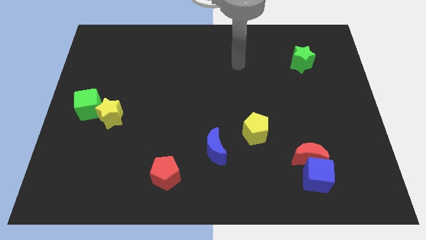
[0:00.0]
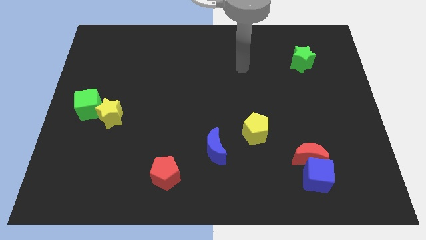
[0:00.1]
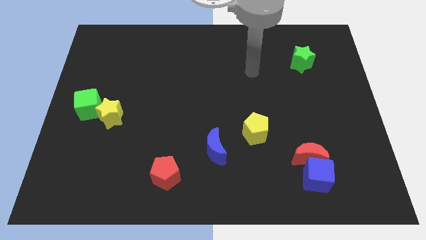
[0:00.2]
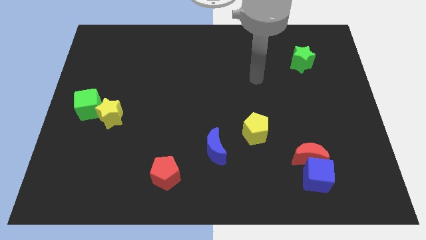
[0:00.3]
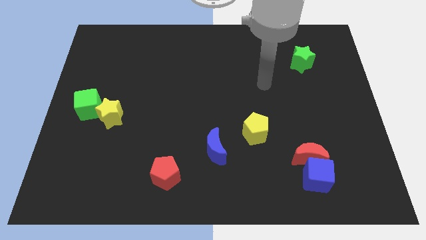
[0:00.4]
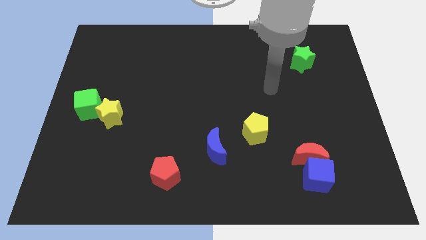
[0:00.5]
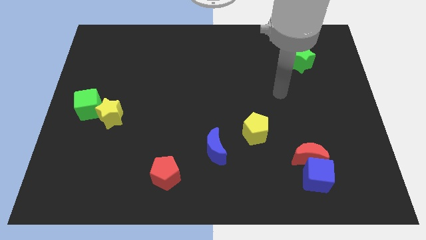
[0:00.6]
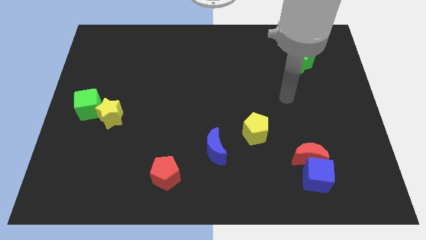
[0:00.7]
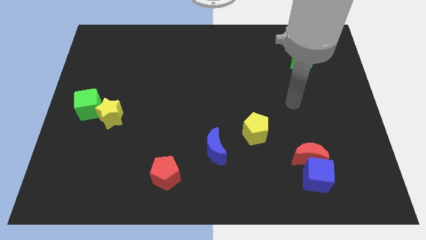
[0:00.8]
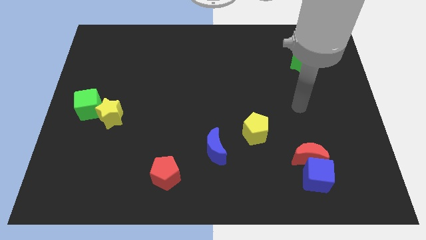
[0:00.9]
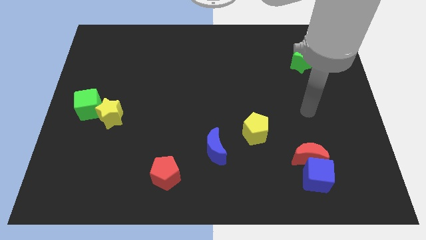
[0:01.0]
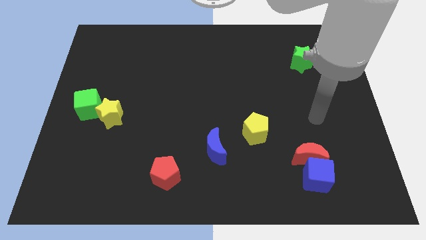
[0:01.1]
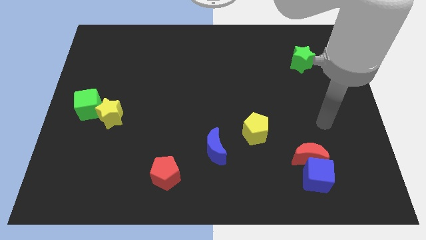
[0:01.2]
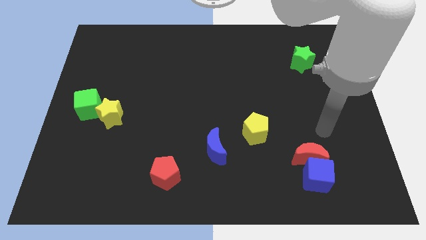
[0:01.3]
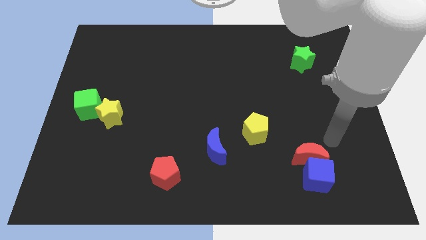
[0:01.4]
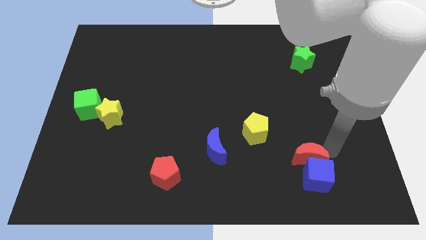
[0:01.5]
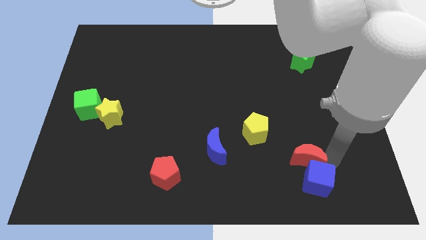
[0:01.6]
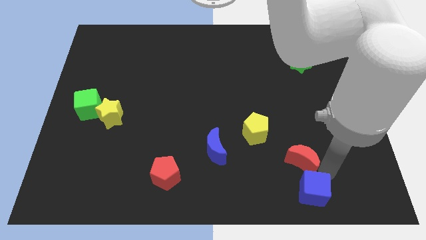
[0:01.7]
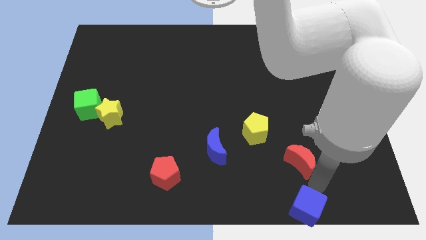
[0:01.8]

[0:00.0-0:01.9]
pull the red moon apart from the blue cube

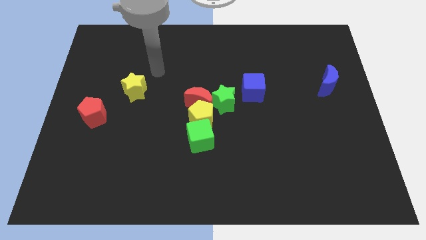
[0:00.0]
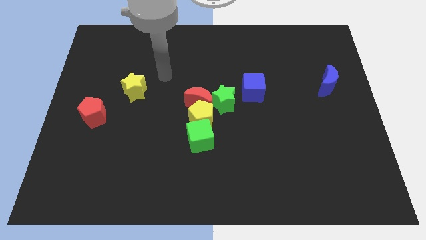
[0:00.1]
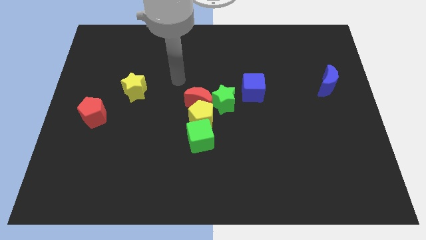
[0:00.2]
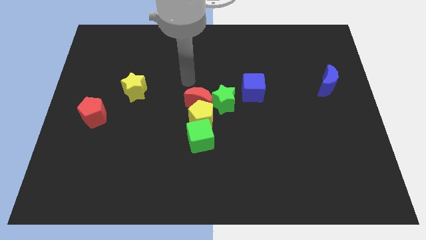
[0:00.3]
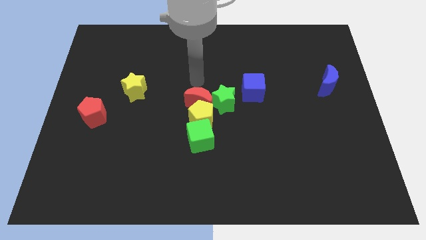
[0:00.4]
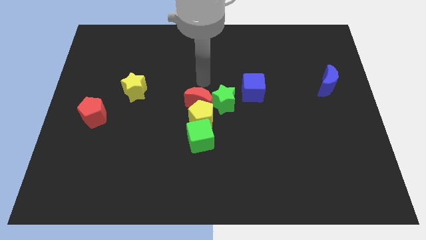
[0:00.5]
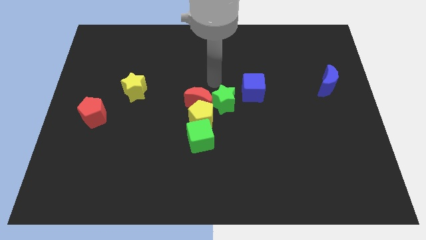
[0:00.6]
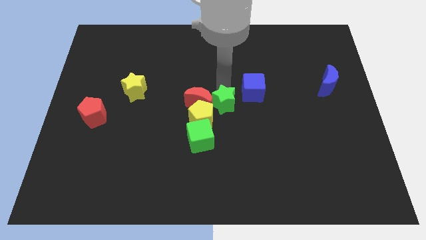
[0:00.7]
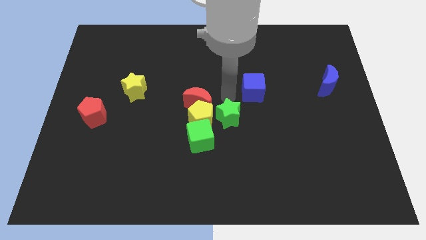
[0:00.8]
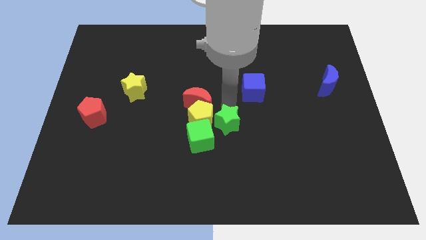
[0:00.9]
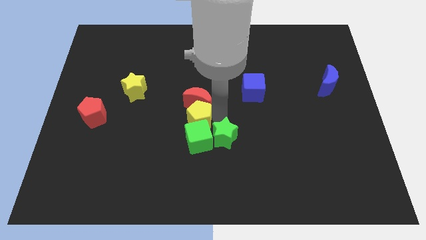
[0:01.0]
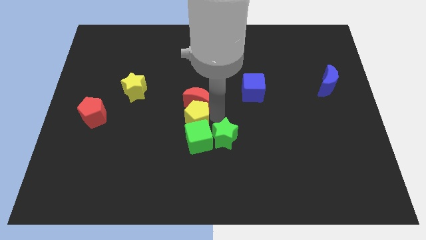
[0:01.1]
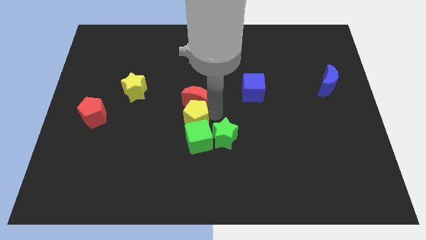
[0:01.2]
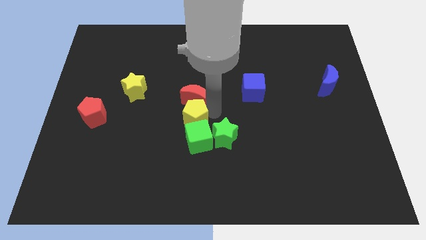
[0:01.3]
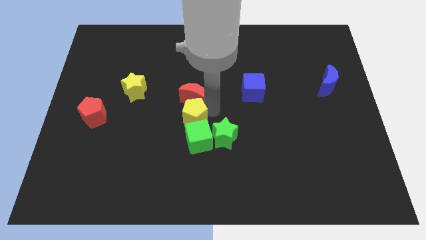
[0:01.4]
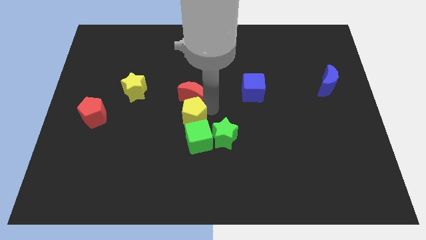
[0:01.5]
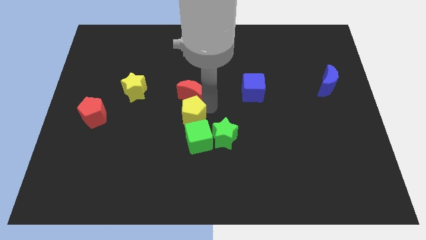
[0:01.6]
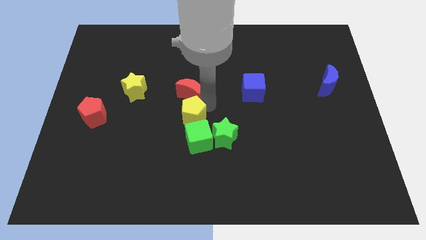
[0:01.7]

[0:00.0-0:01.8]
pull the red moon apart from the yellow pentagon and green star

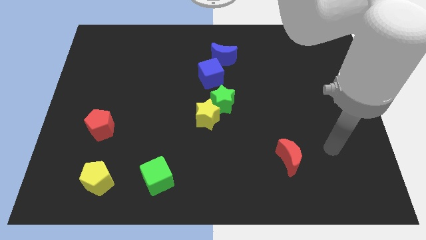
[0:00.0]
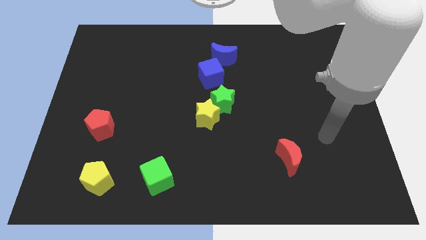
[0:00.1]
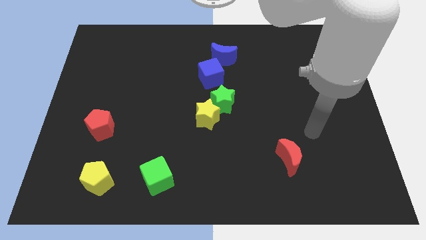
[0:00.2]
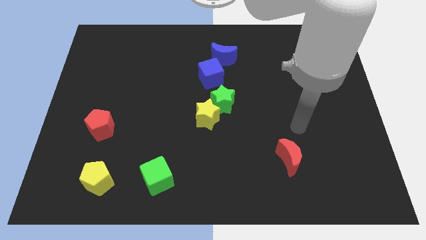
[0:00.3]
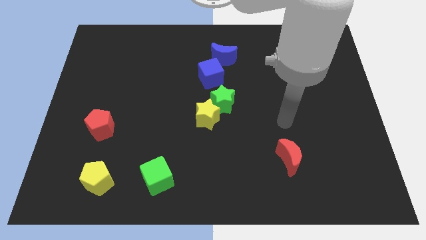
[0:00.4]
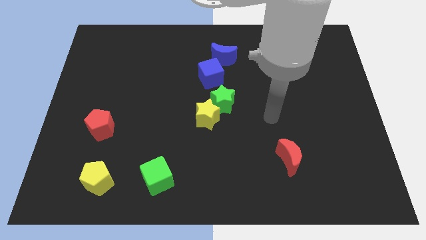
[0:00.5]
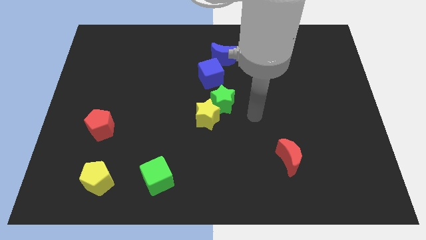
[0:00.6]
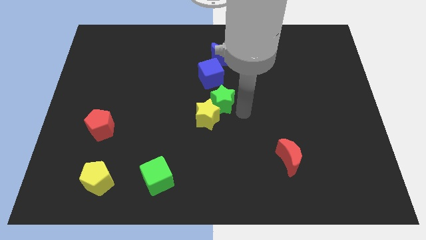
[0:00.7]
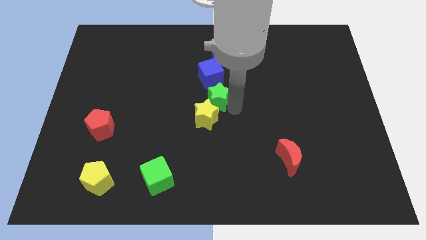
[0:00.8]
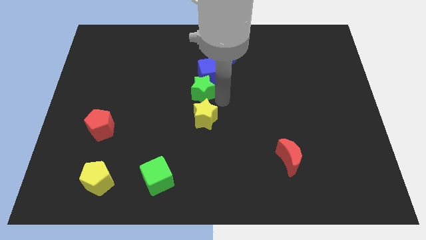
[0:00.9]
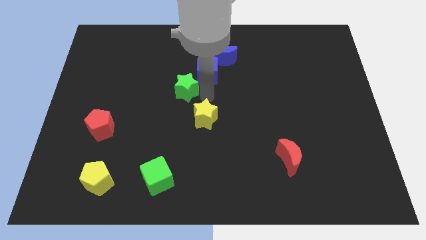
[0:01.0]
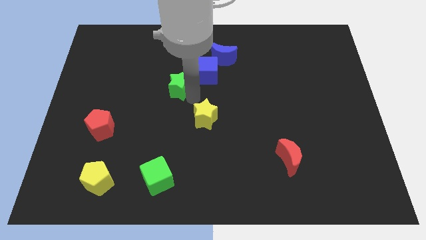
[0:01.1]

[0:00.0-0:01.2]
separate the yellow star from the green star

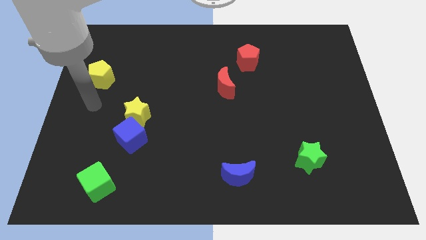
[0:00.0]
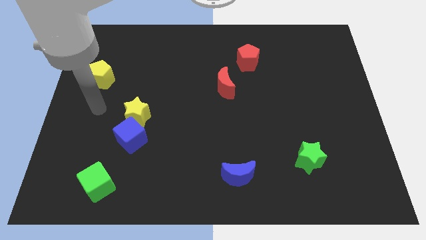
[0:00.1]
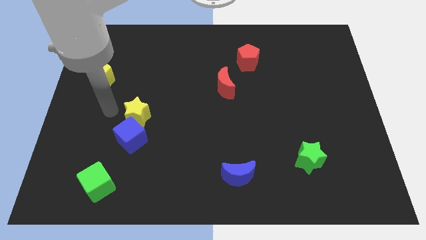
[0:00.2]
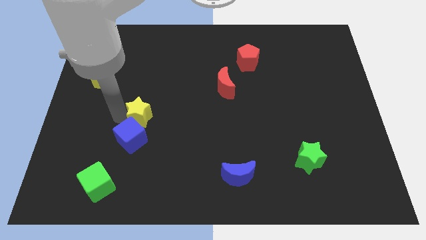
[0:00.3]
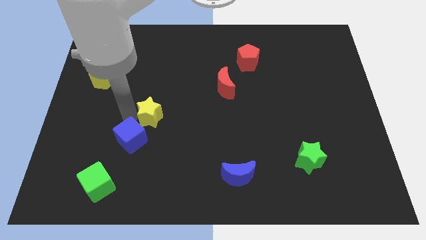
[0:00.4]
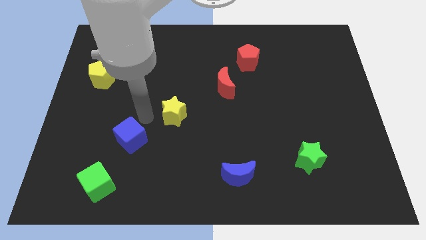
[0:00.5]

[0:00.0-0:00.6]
separate the blue cube from the yellow star

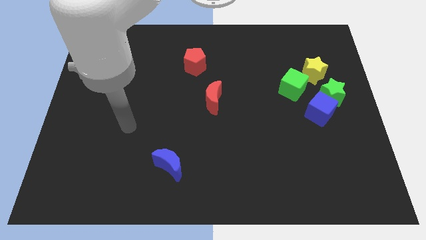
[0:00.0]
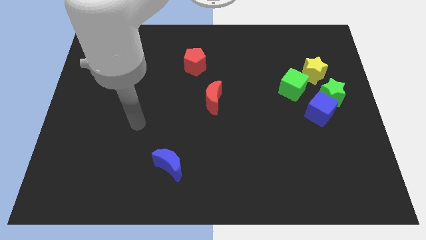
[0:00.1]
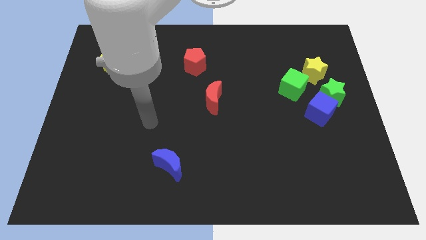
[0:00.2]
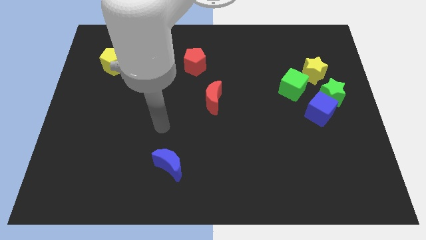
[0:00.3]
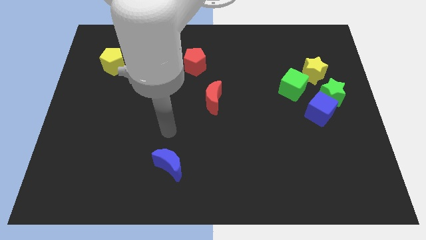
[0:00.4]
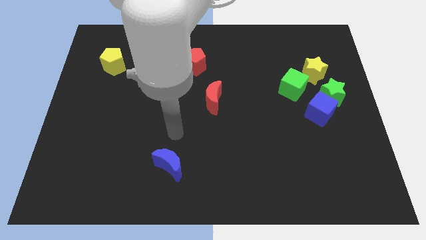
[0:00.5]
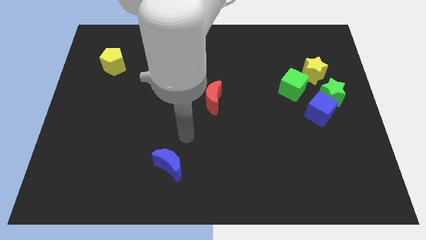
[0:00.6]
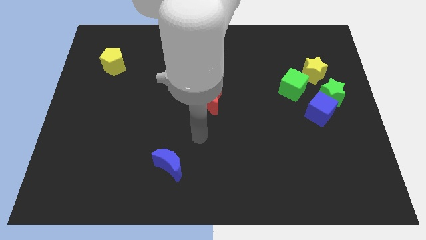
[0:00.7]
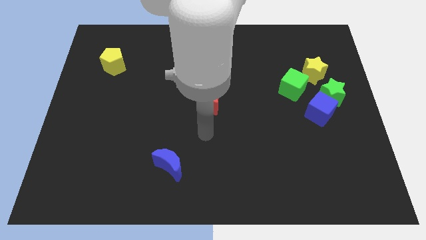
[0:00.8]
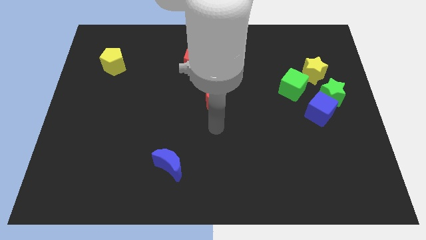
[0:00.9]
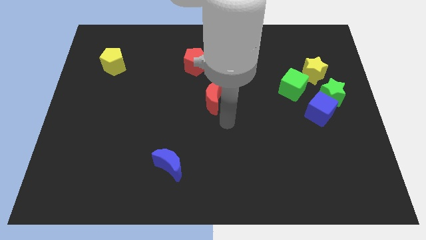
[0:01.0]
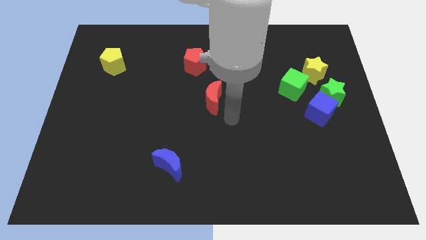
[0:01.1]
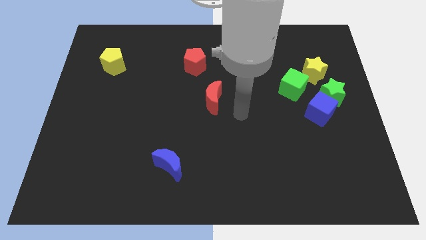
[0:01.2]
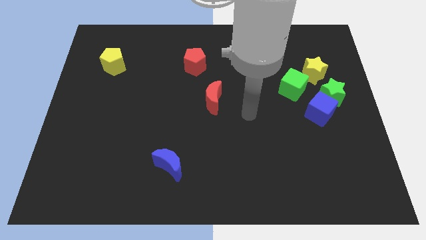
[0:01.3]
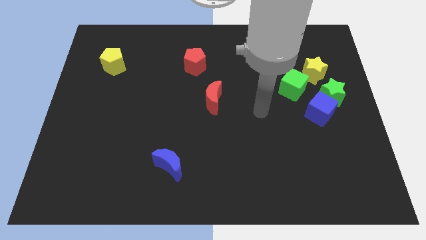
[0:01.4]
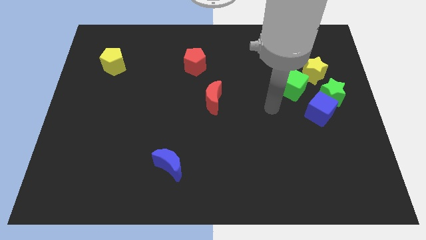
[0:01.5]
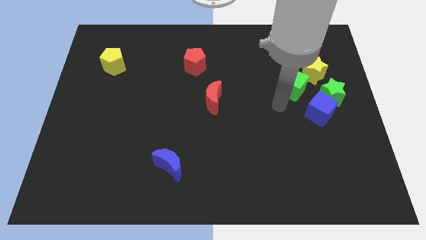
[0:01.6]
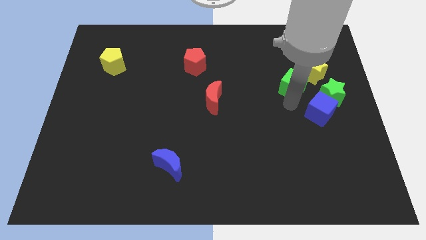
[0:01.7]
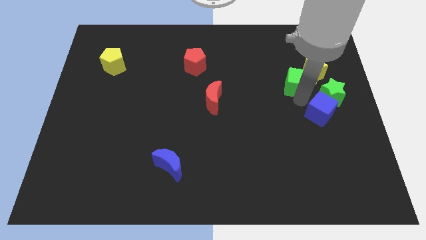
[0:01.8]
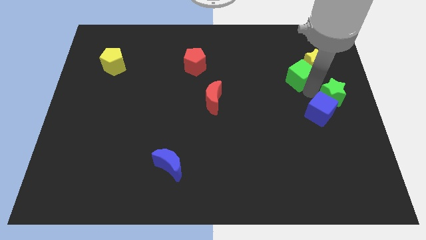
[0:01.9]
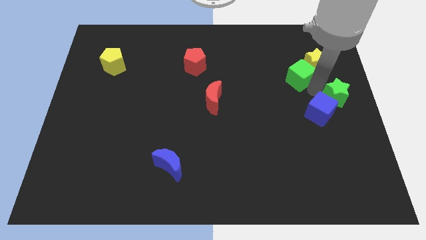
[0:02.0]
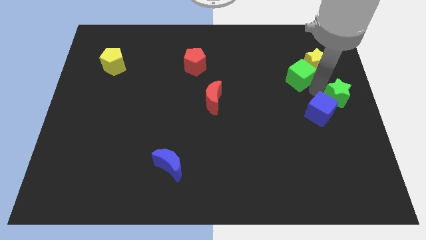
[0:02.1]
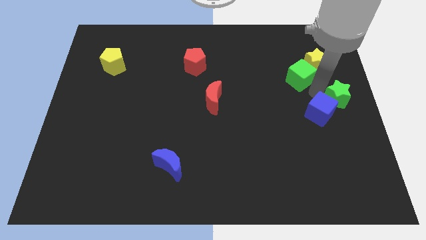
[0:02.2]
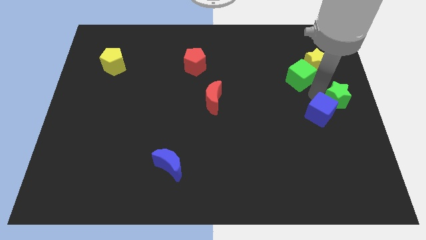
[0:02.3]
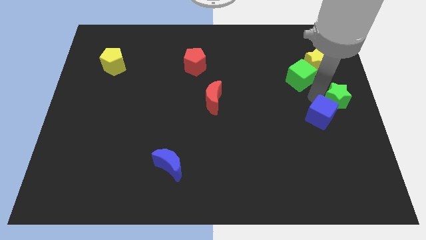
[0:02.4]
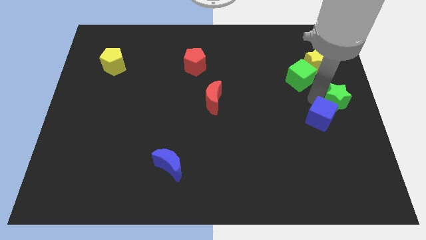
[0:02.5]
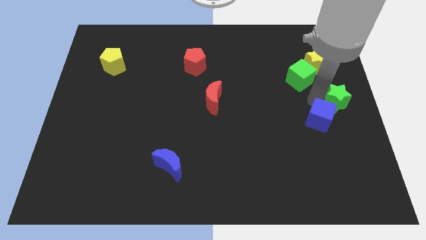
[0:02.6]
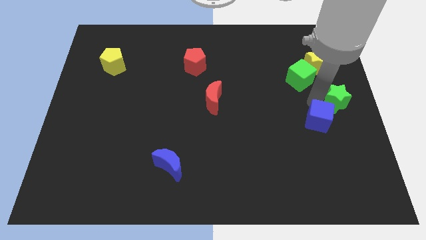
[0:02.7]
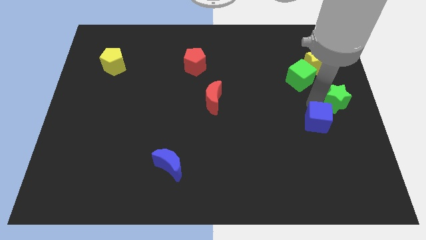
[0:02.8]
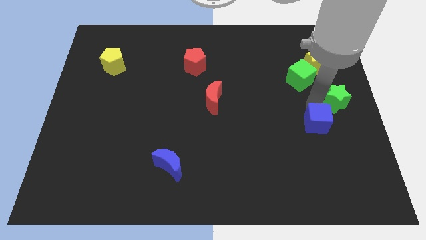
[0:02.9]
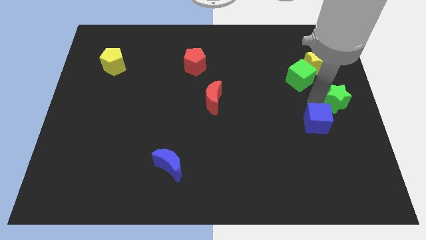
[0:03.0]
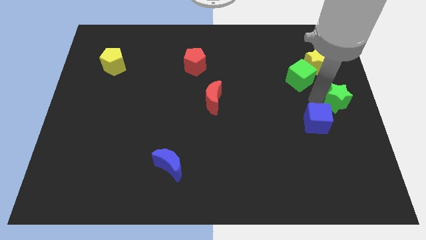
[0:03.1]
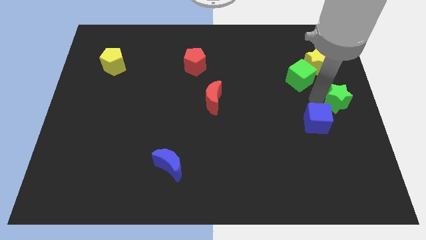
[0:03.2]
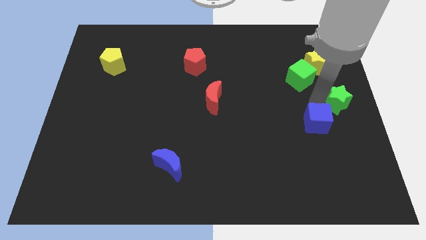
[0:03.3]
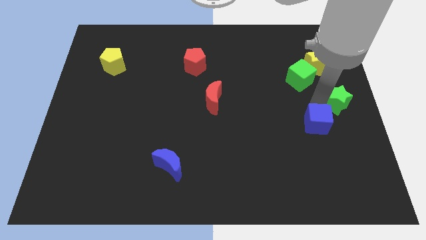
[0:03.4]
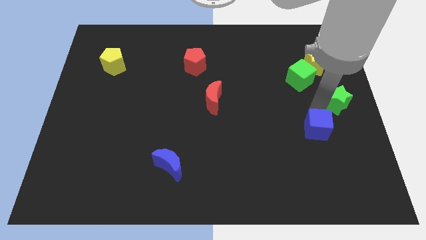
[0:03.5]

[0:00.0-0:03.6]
separate the blue cube from the green star and green cube

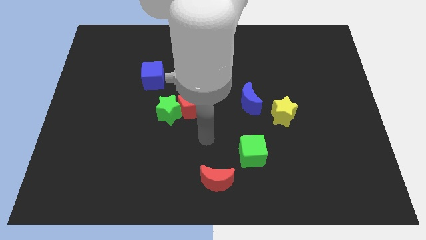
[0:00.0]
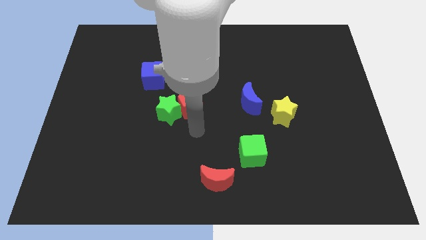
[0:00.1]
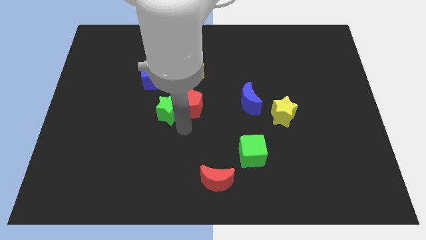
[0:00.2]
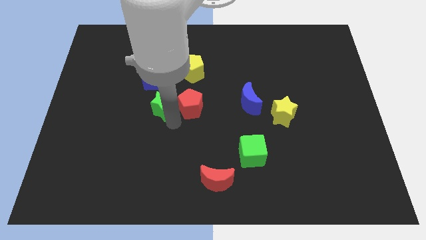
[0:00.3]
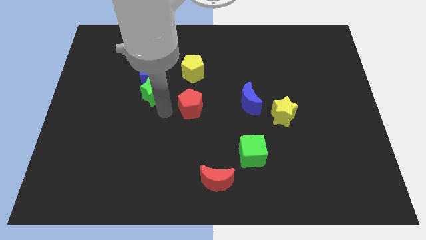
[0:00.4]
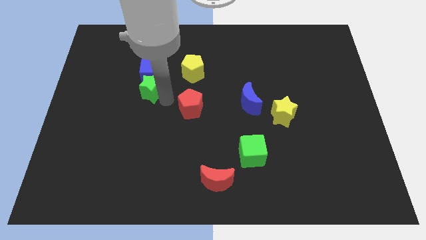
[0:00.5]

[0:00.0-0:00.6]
move the red pentagon away from the green star
